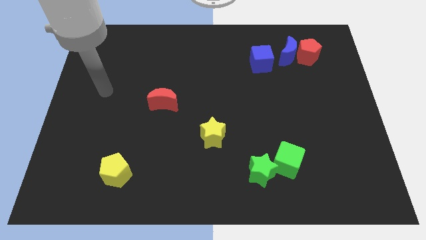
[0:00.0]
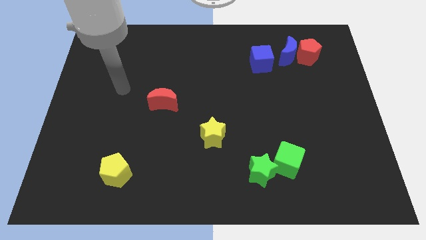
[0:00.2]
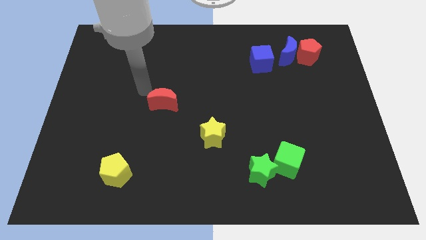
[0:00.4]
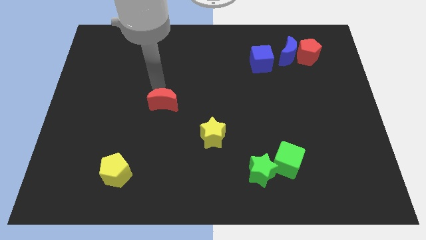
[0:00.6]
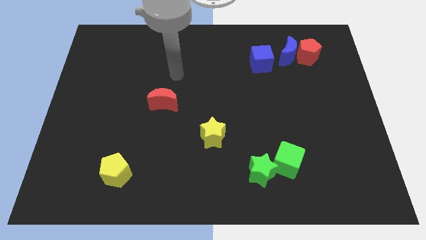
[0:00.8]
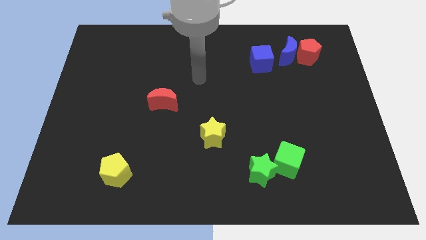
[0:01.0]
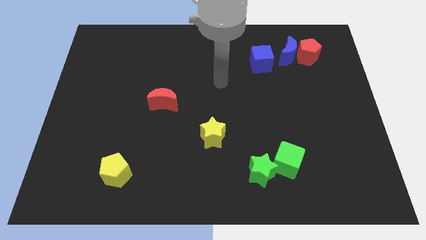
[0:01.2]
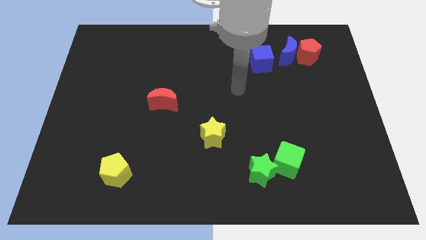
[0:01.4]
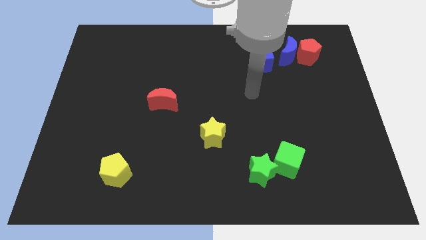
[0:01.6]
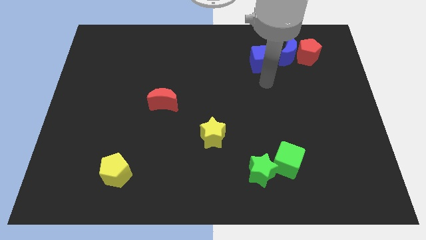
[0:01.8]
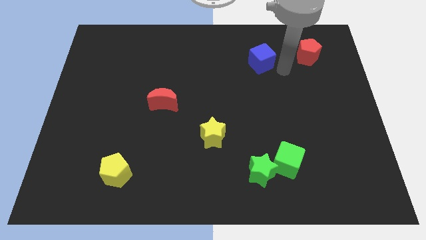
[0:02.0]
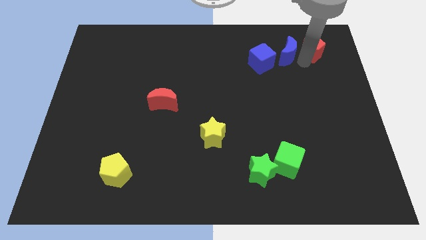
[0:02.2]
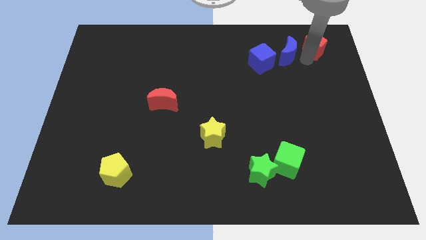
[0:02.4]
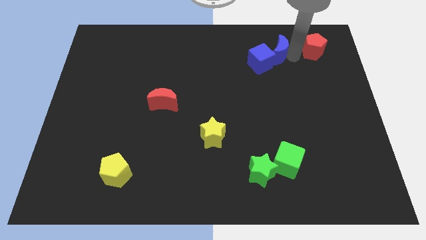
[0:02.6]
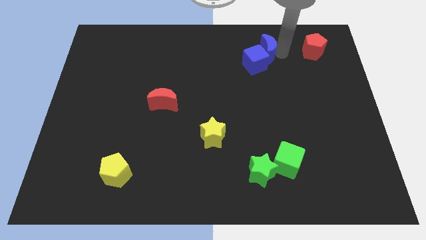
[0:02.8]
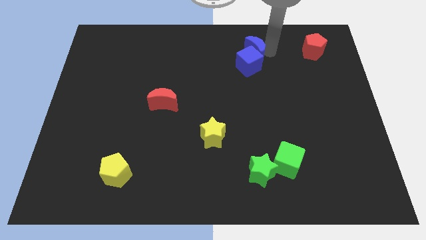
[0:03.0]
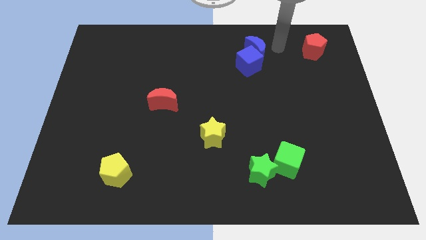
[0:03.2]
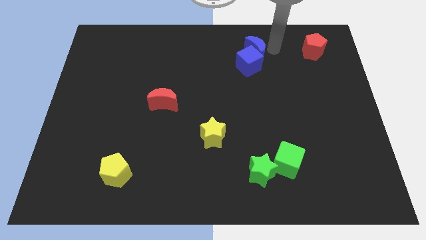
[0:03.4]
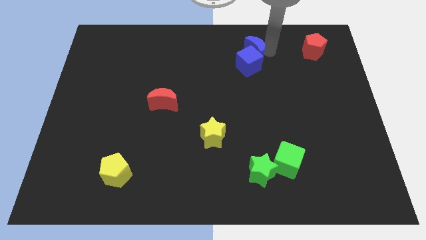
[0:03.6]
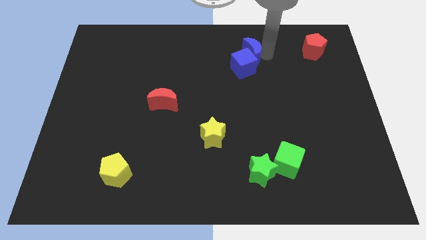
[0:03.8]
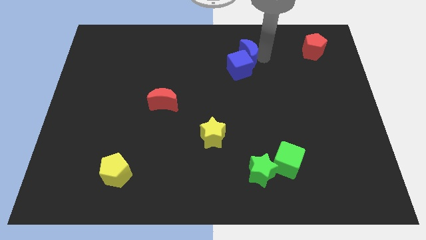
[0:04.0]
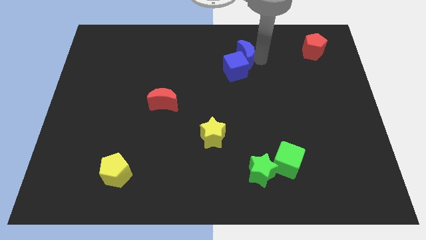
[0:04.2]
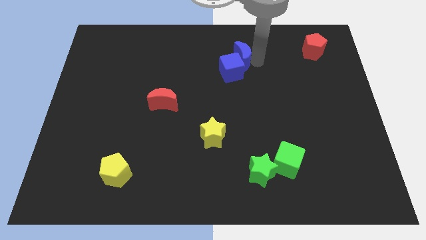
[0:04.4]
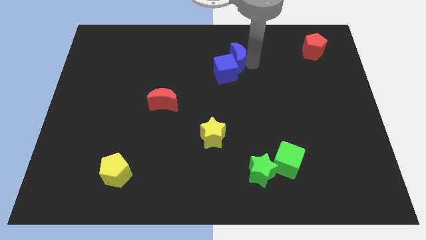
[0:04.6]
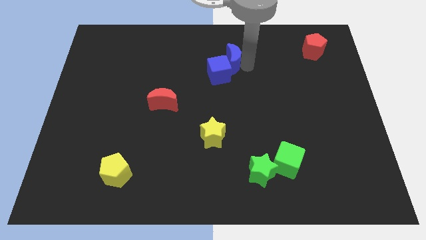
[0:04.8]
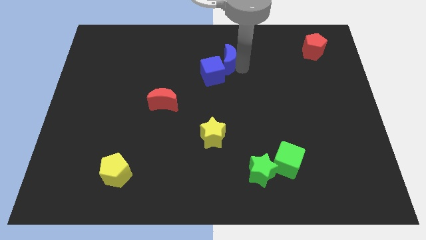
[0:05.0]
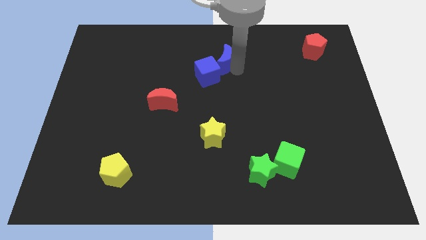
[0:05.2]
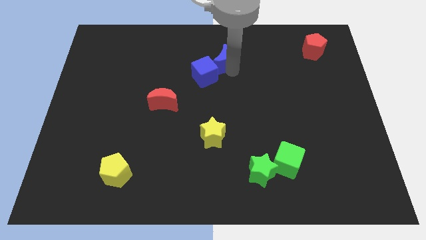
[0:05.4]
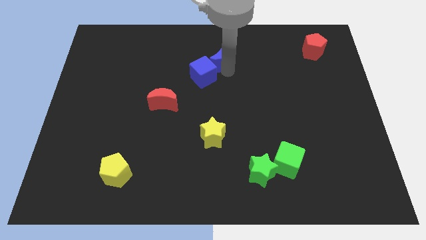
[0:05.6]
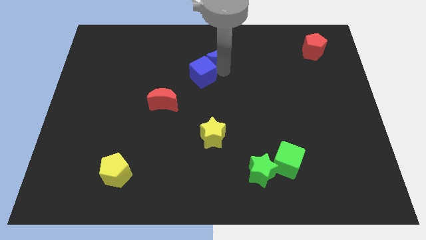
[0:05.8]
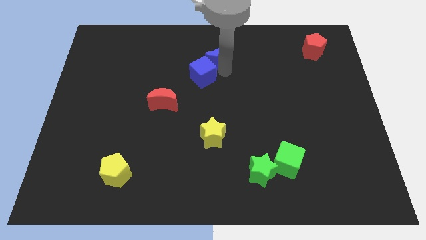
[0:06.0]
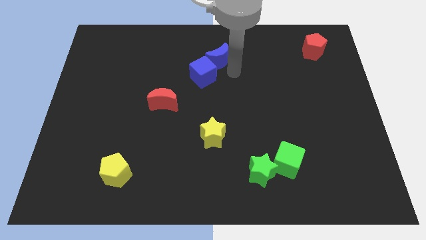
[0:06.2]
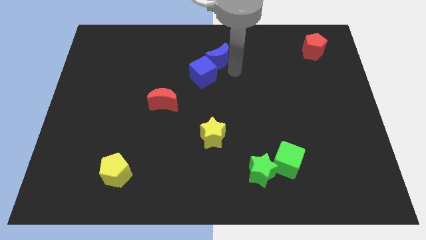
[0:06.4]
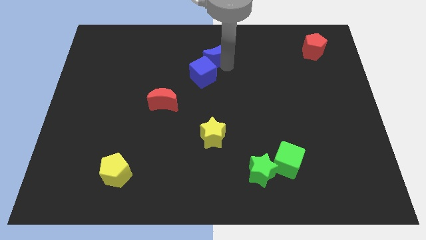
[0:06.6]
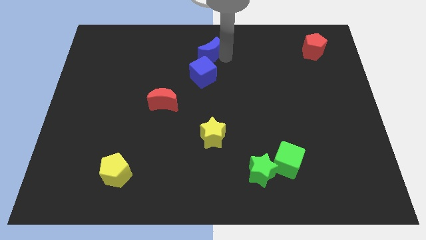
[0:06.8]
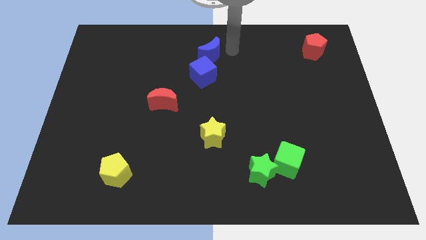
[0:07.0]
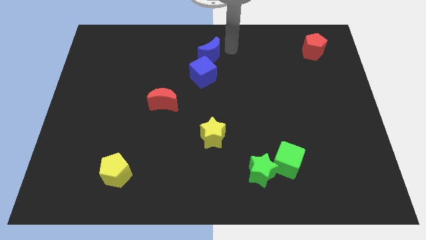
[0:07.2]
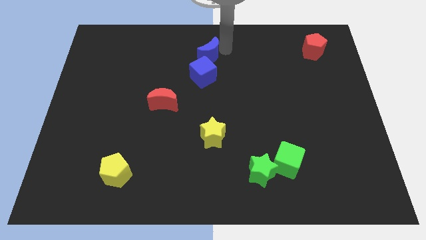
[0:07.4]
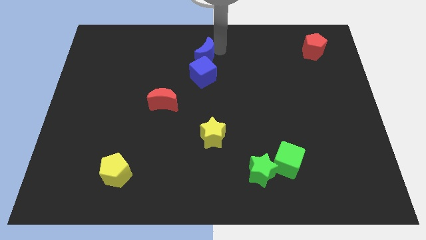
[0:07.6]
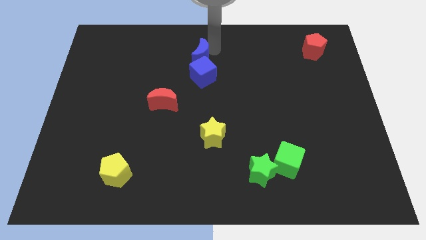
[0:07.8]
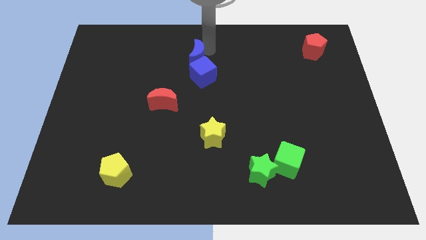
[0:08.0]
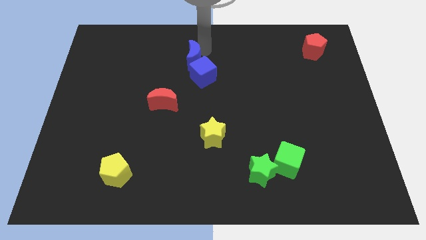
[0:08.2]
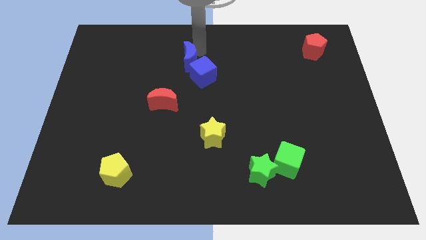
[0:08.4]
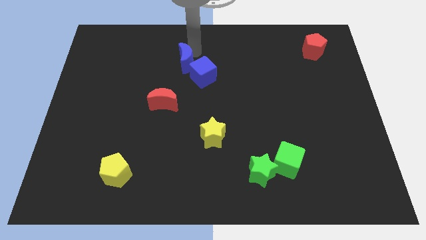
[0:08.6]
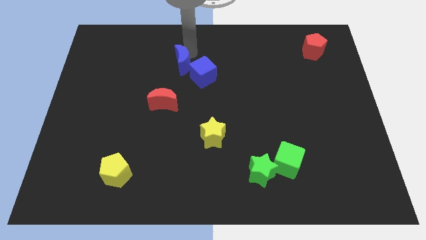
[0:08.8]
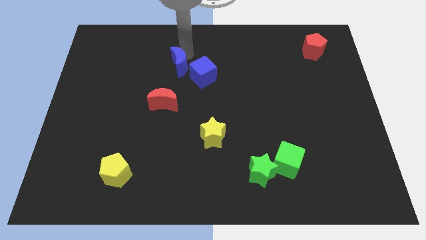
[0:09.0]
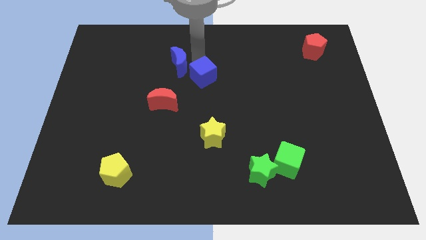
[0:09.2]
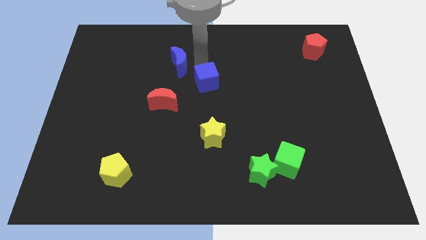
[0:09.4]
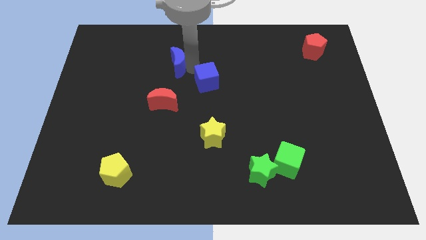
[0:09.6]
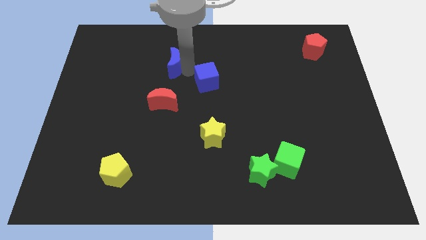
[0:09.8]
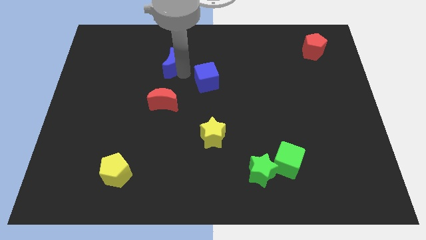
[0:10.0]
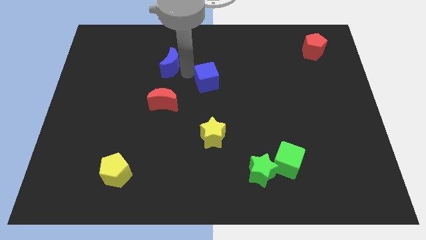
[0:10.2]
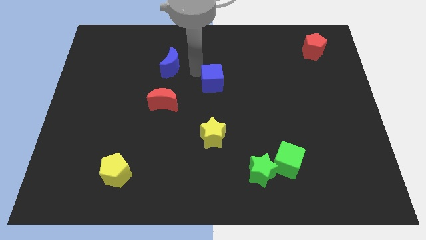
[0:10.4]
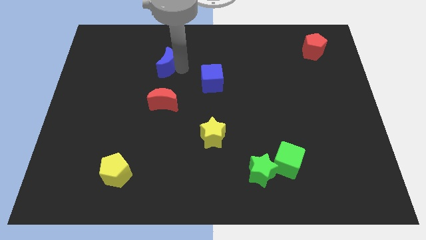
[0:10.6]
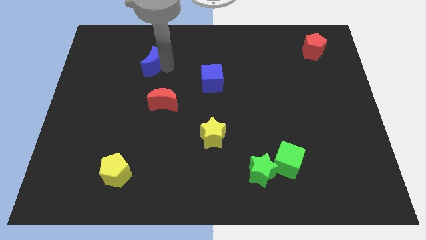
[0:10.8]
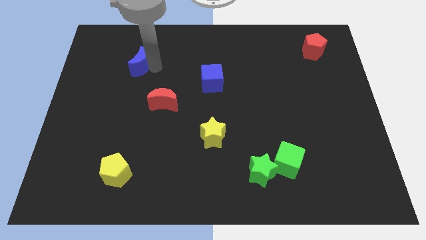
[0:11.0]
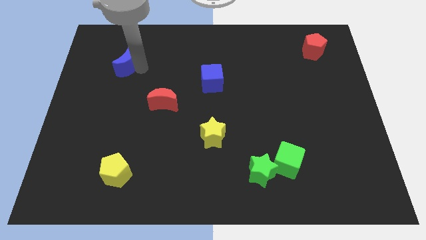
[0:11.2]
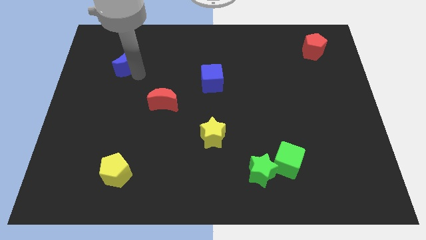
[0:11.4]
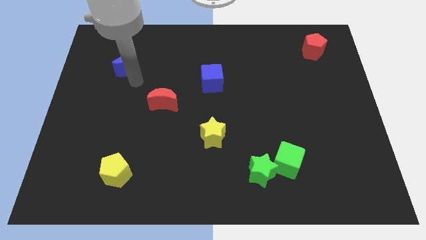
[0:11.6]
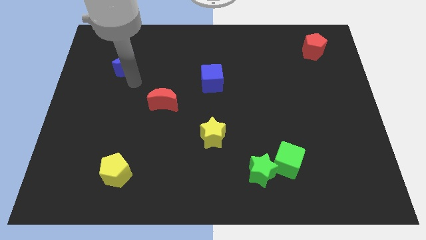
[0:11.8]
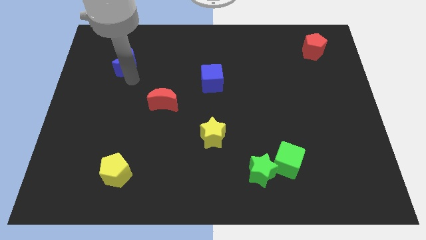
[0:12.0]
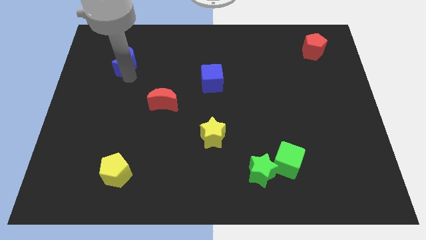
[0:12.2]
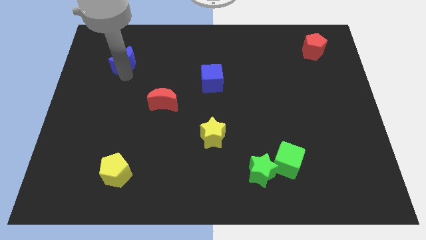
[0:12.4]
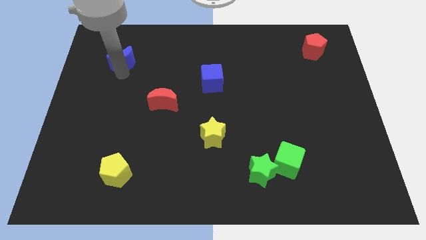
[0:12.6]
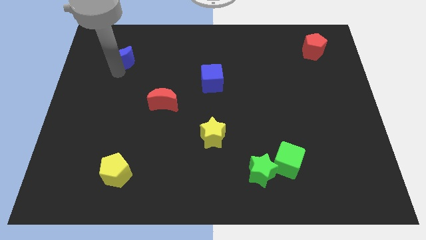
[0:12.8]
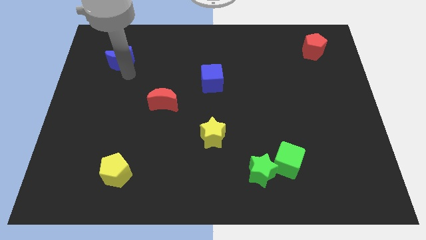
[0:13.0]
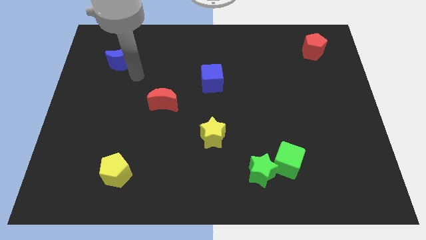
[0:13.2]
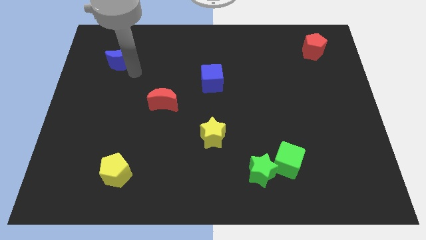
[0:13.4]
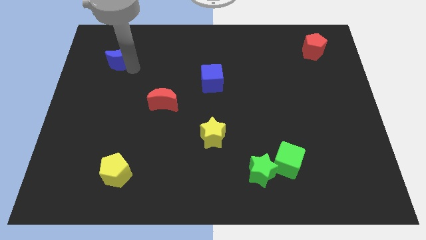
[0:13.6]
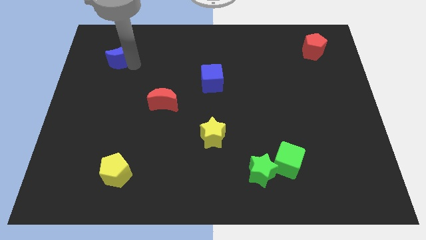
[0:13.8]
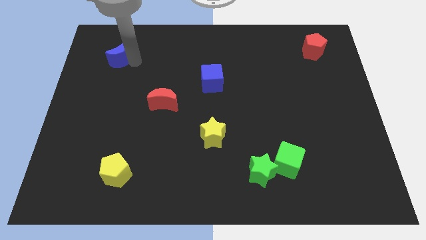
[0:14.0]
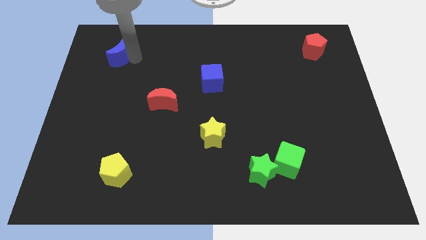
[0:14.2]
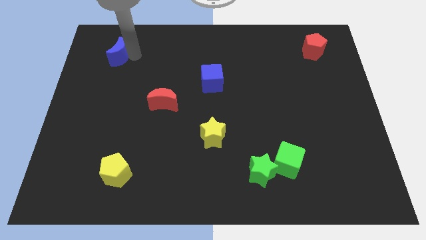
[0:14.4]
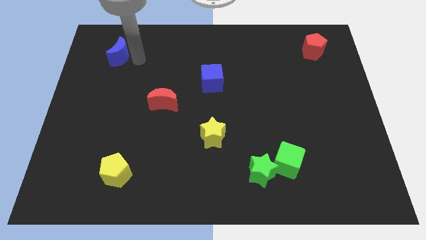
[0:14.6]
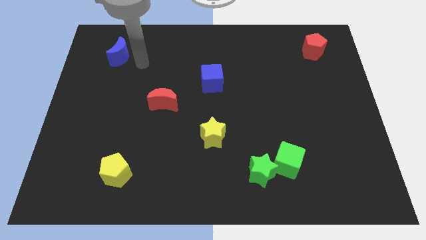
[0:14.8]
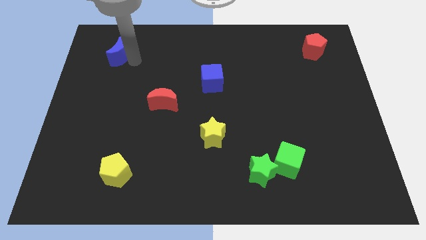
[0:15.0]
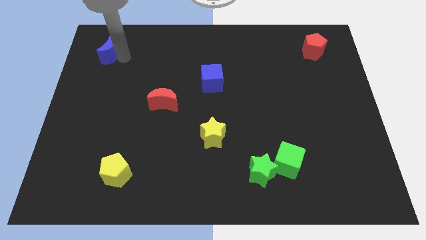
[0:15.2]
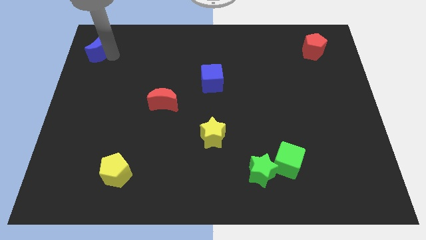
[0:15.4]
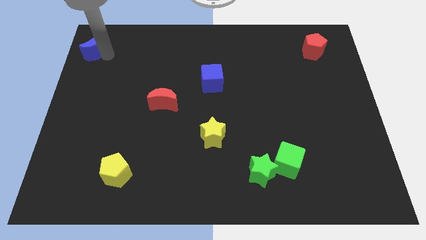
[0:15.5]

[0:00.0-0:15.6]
push the blue moon to the top left
